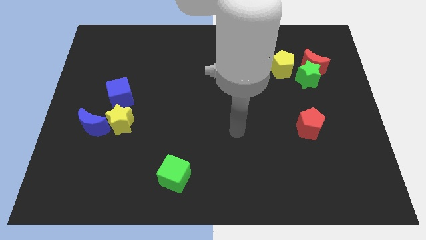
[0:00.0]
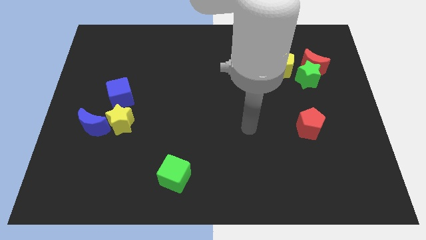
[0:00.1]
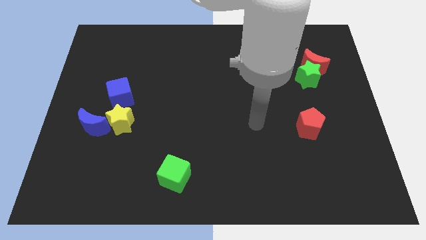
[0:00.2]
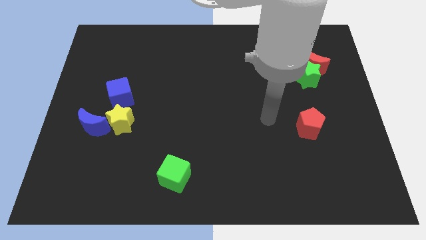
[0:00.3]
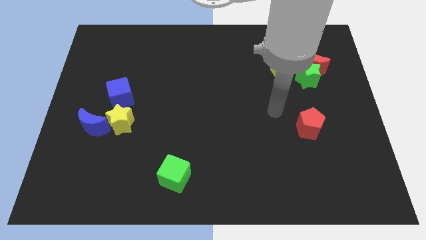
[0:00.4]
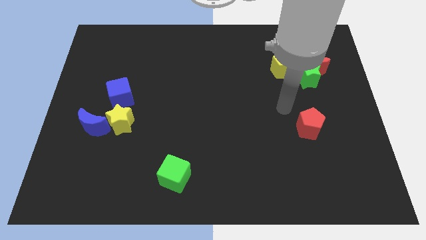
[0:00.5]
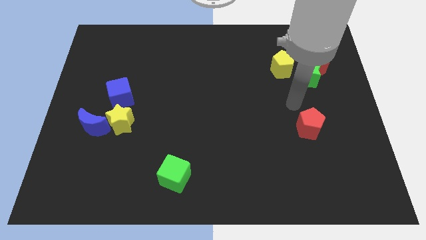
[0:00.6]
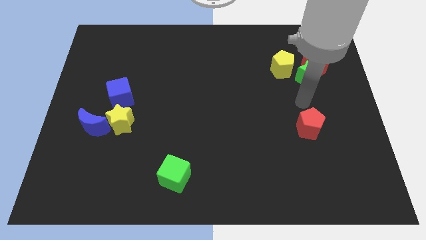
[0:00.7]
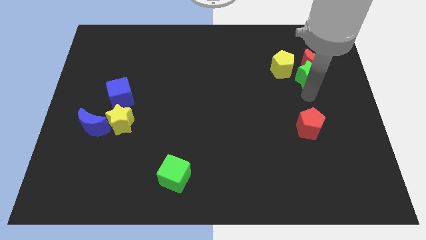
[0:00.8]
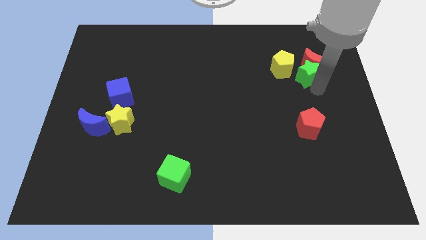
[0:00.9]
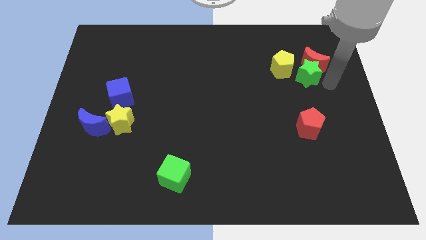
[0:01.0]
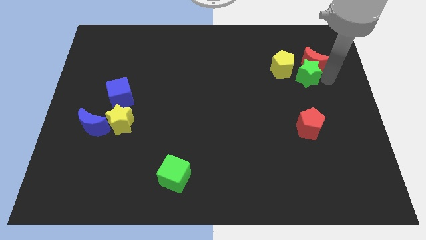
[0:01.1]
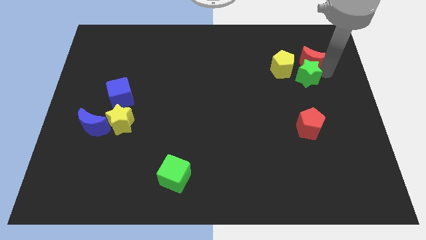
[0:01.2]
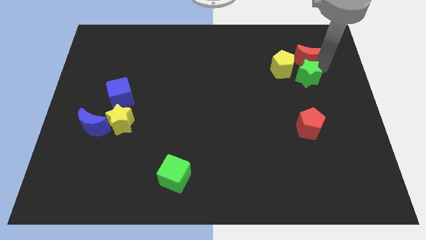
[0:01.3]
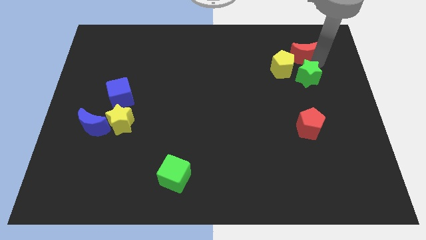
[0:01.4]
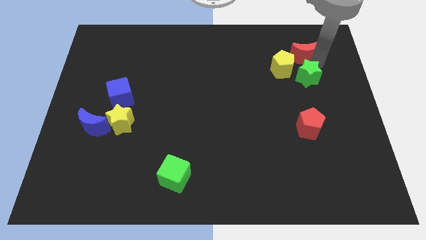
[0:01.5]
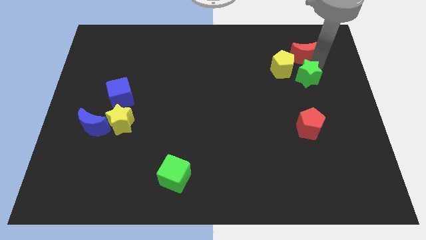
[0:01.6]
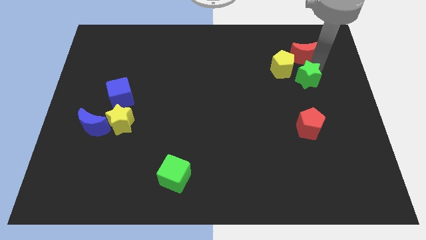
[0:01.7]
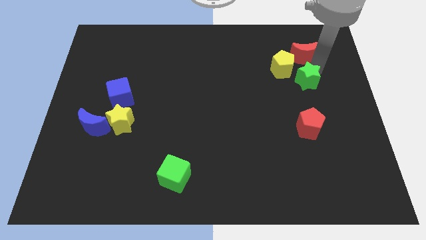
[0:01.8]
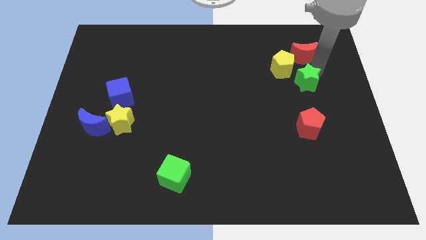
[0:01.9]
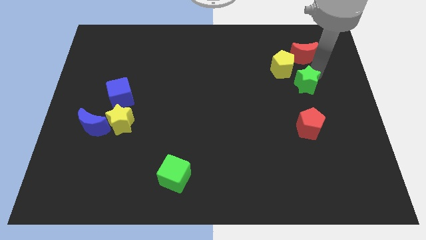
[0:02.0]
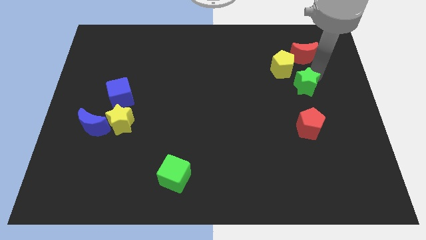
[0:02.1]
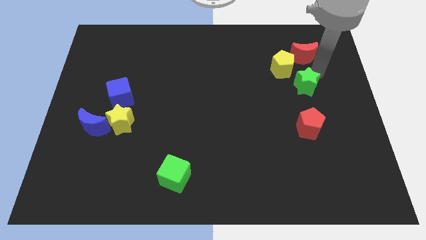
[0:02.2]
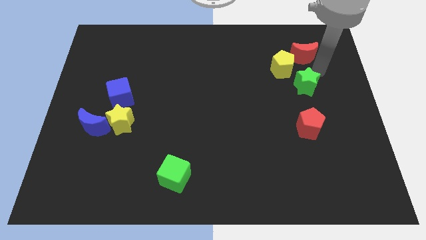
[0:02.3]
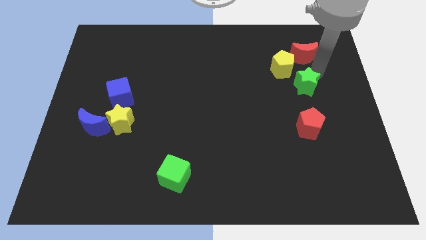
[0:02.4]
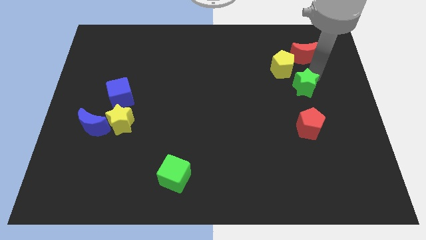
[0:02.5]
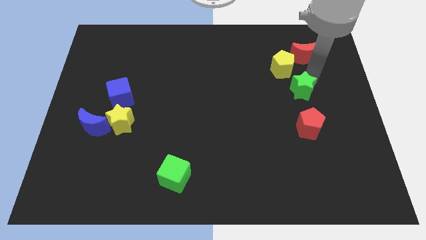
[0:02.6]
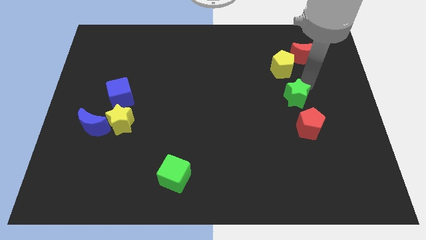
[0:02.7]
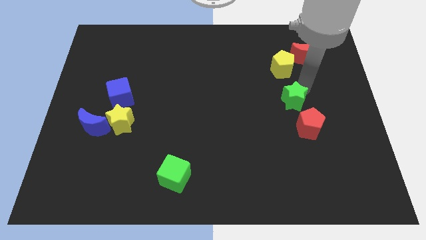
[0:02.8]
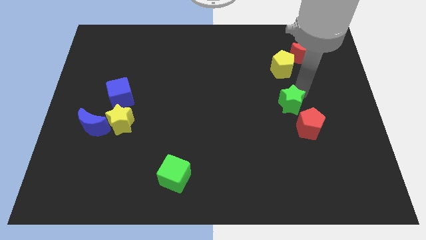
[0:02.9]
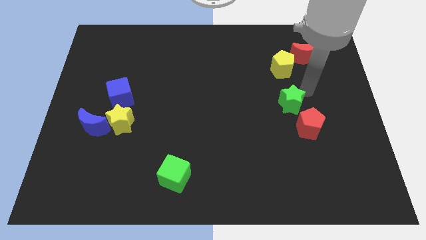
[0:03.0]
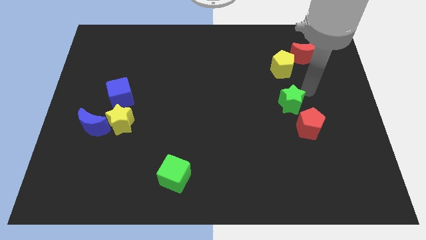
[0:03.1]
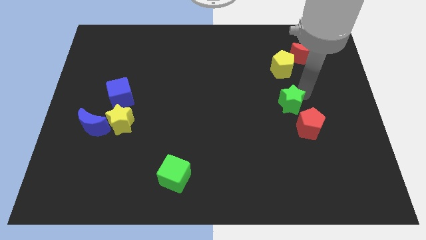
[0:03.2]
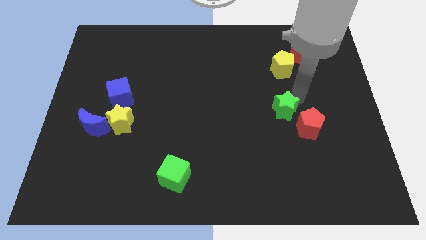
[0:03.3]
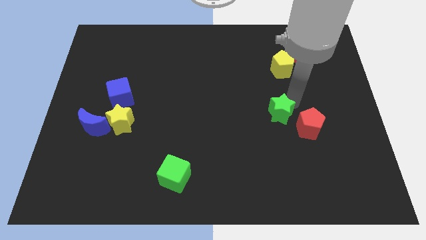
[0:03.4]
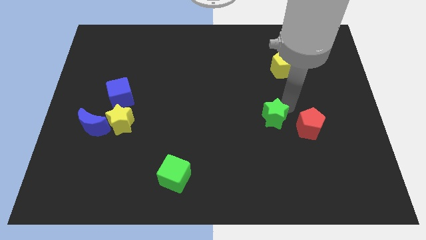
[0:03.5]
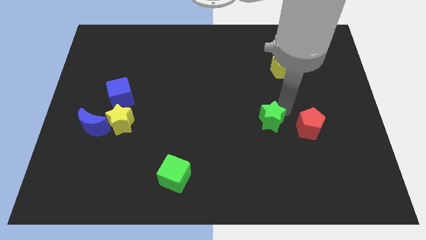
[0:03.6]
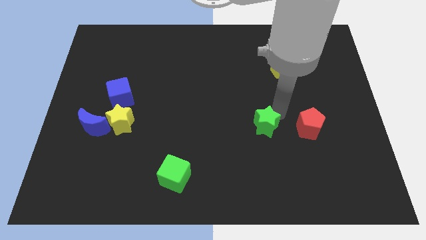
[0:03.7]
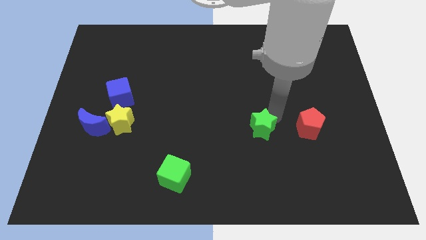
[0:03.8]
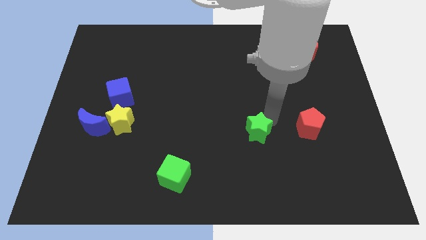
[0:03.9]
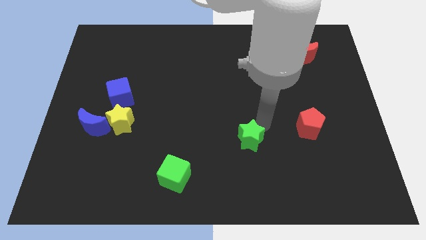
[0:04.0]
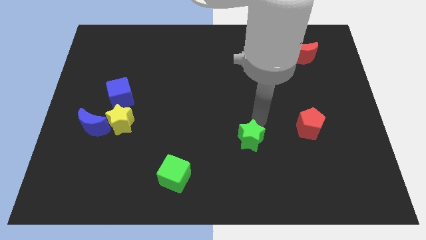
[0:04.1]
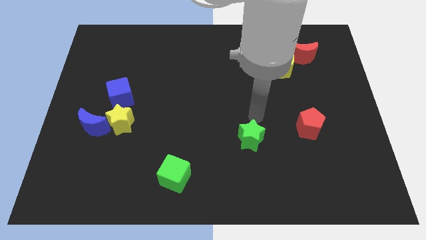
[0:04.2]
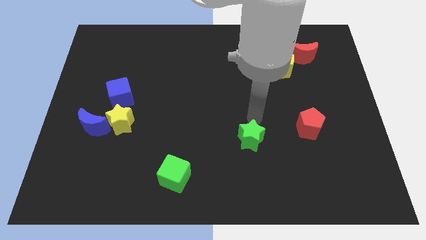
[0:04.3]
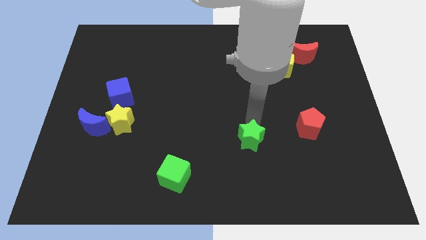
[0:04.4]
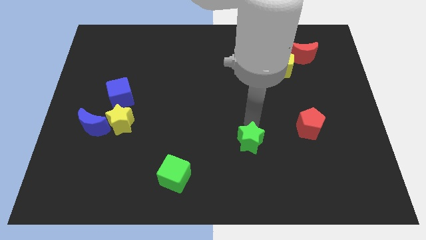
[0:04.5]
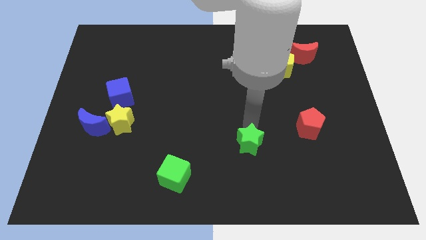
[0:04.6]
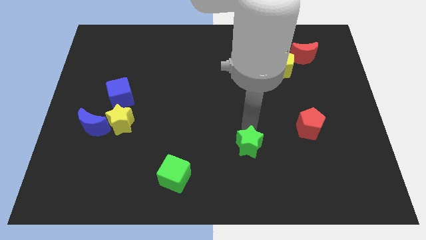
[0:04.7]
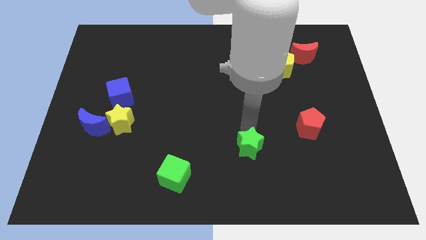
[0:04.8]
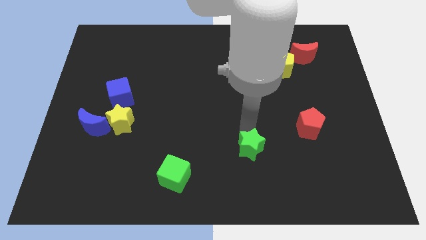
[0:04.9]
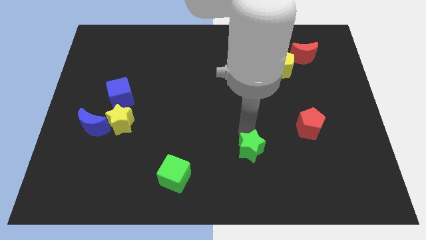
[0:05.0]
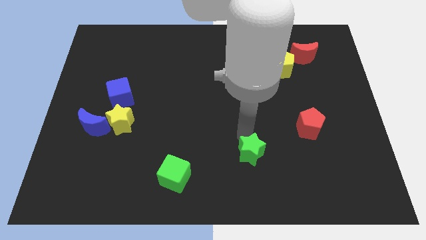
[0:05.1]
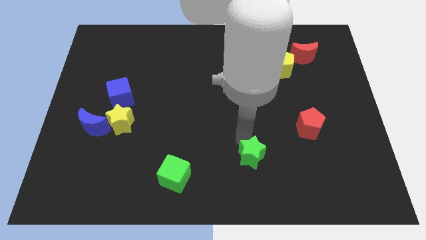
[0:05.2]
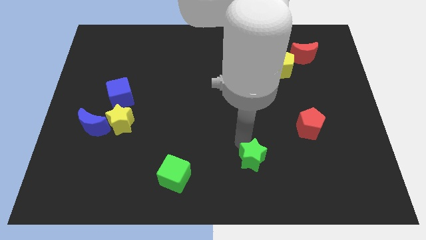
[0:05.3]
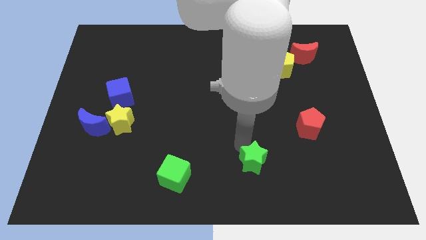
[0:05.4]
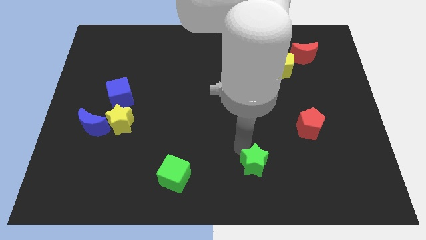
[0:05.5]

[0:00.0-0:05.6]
slide the green star to the bottom side

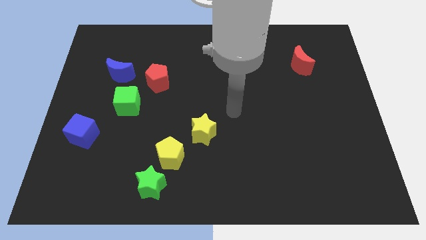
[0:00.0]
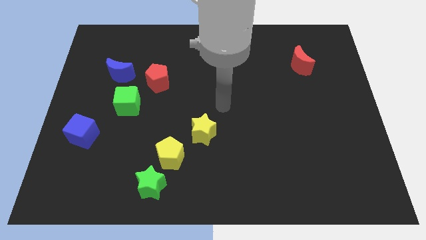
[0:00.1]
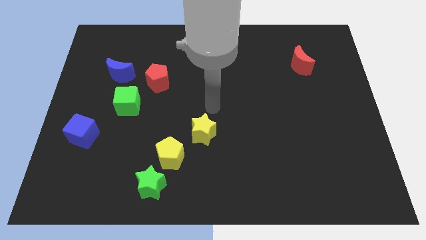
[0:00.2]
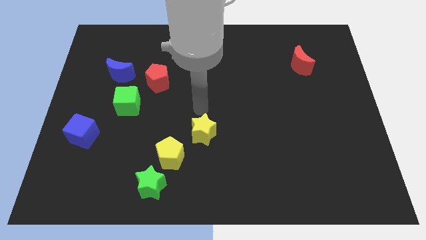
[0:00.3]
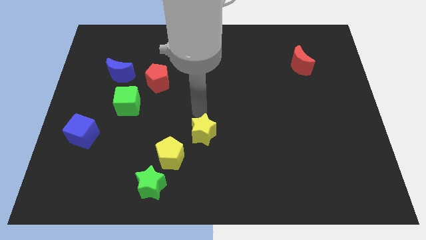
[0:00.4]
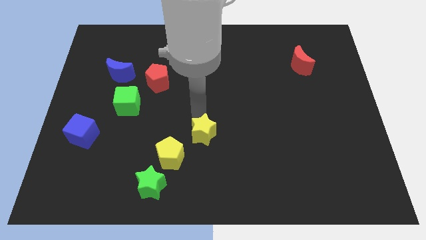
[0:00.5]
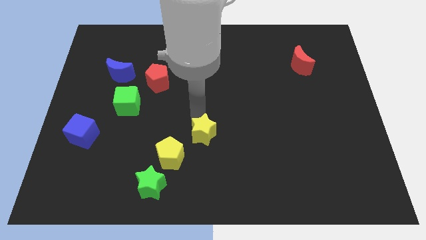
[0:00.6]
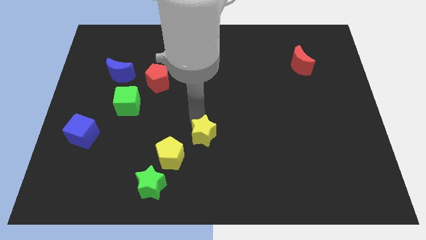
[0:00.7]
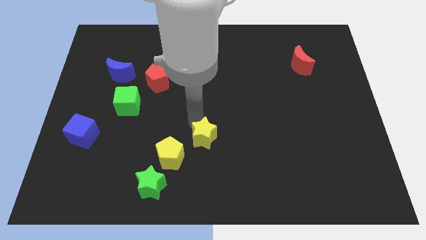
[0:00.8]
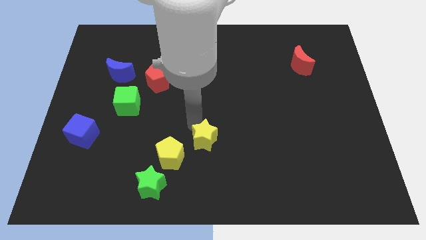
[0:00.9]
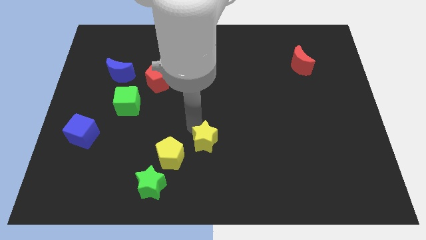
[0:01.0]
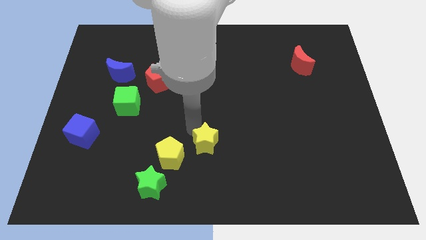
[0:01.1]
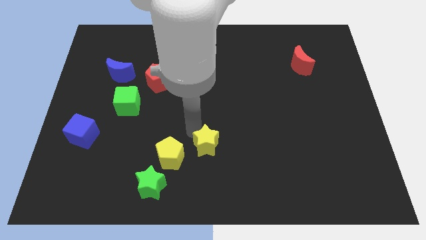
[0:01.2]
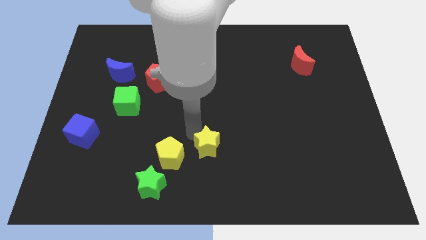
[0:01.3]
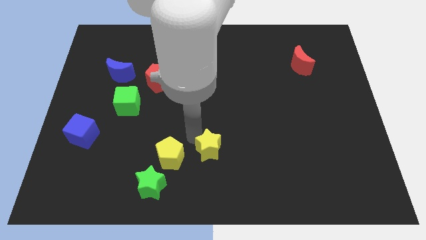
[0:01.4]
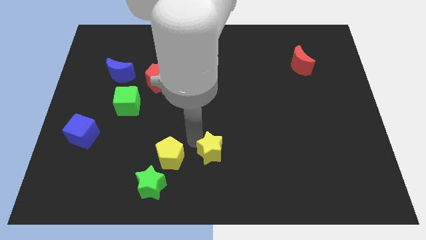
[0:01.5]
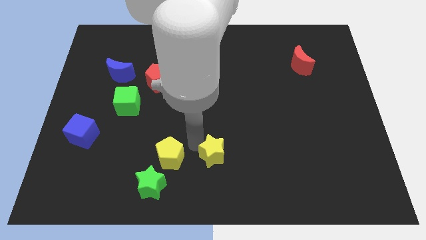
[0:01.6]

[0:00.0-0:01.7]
slide the yellow star to the bottom side
